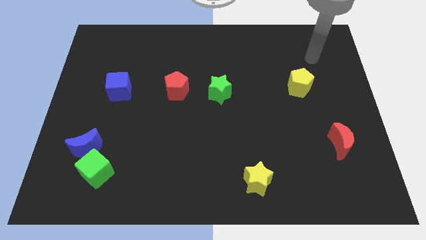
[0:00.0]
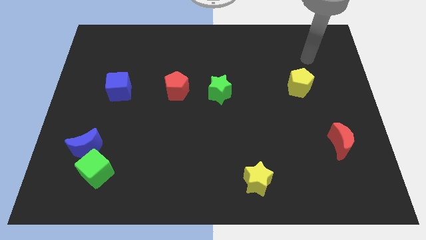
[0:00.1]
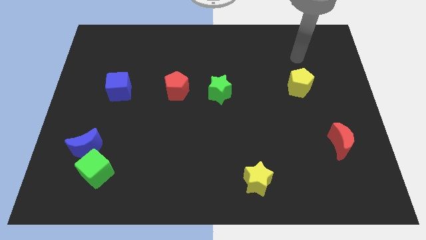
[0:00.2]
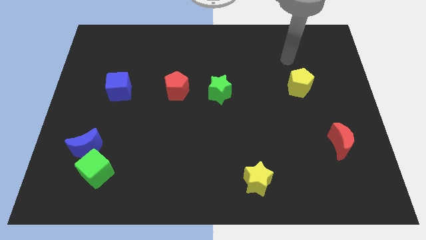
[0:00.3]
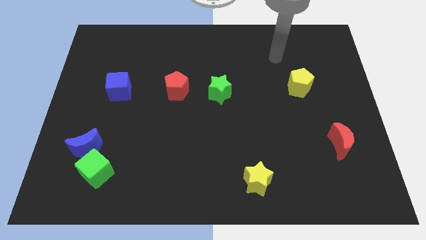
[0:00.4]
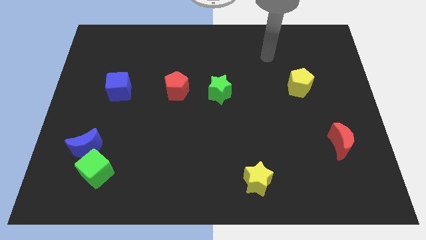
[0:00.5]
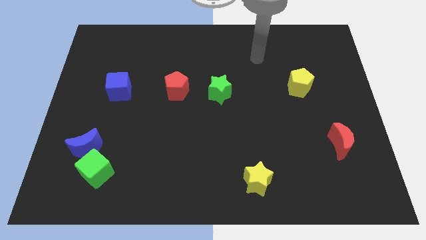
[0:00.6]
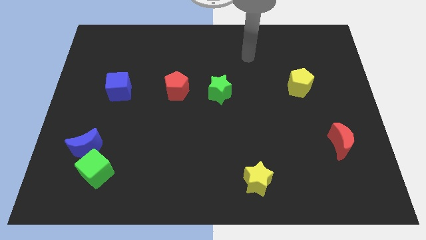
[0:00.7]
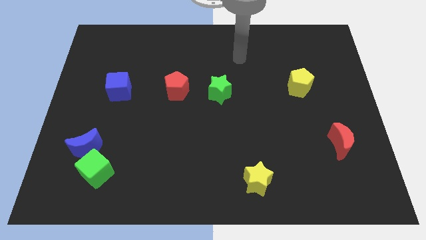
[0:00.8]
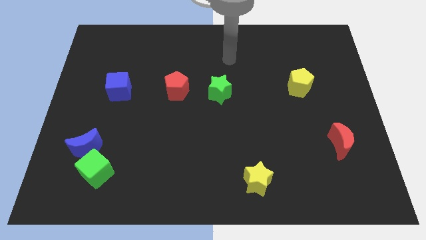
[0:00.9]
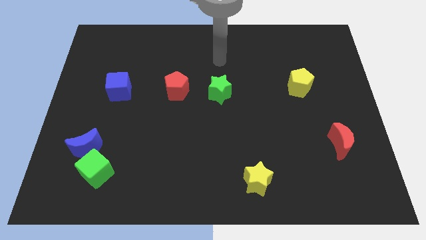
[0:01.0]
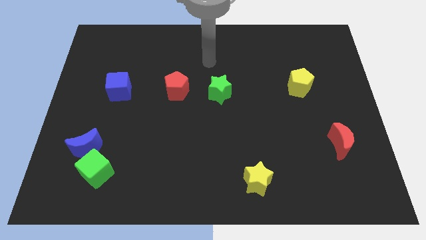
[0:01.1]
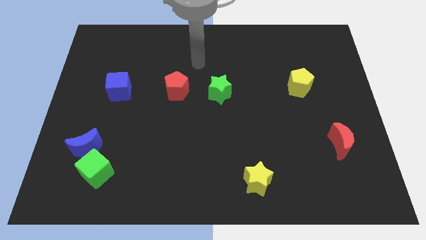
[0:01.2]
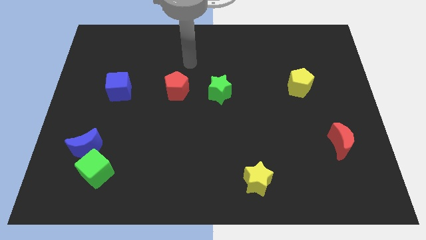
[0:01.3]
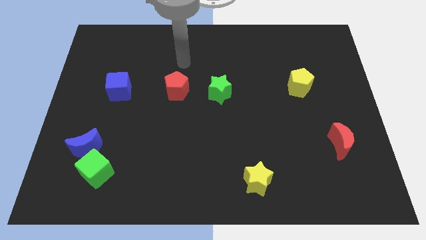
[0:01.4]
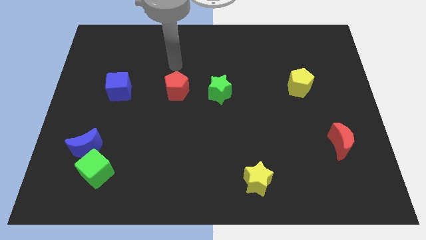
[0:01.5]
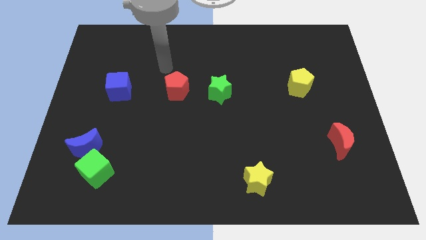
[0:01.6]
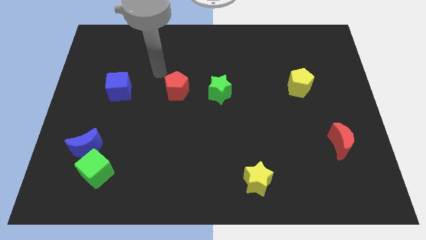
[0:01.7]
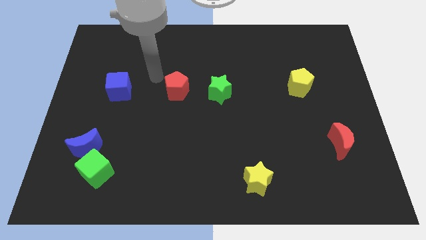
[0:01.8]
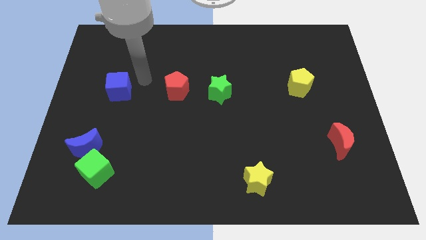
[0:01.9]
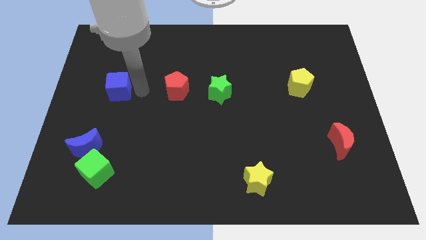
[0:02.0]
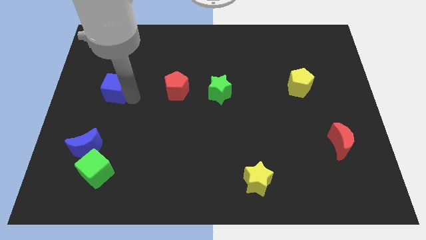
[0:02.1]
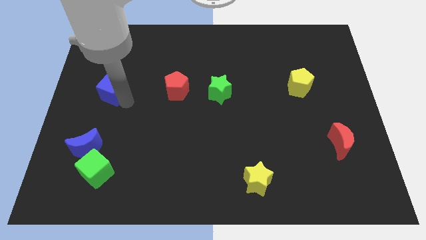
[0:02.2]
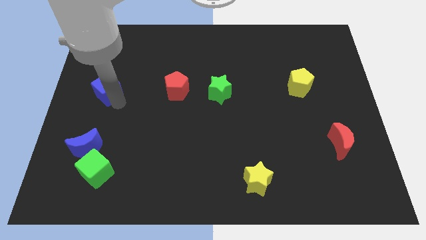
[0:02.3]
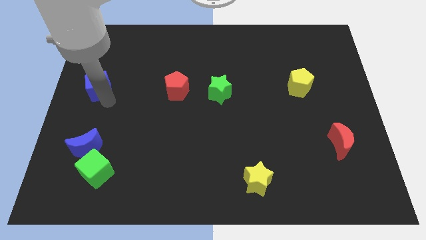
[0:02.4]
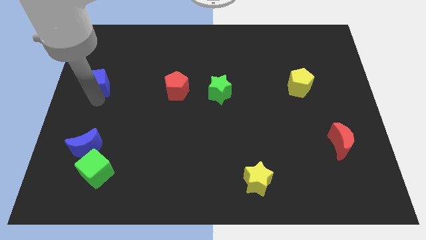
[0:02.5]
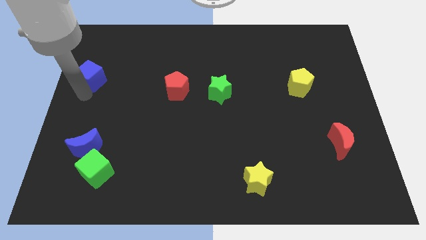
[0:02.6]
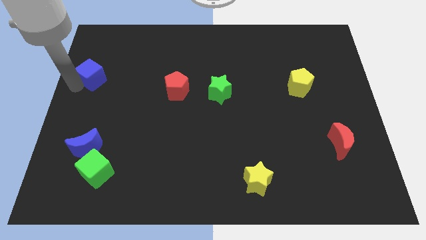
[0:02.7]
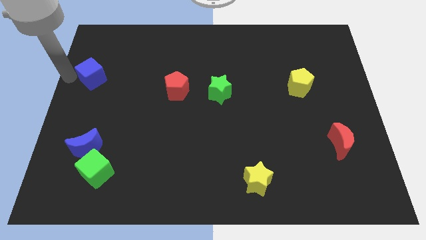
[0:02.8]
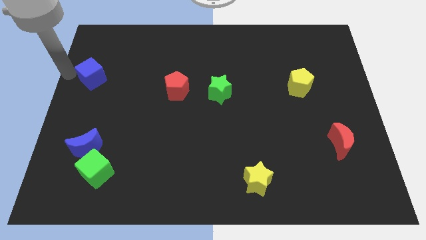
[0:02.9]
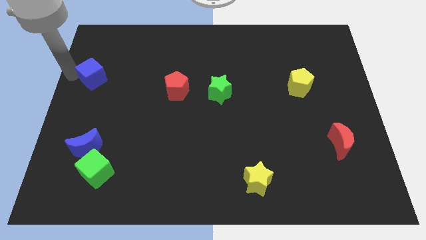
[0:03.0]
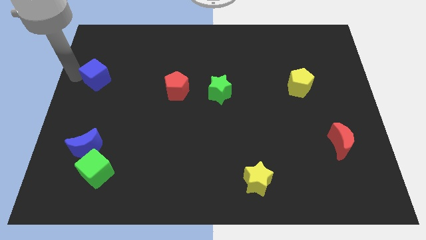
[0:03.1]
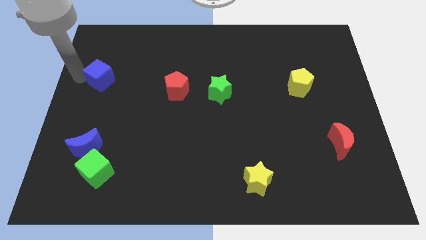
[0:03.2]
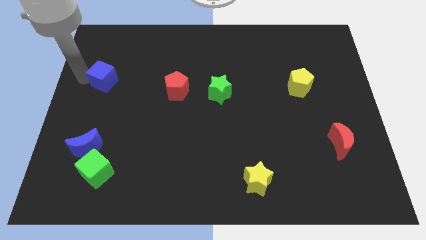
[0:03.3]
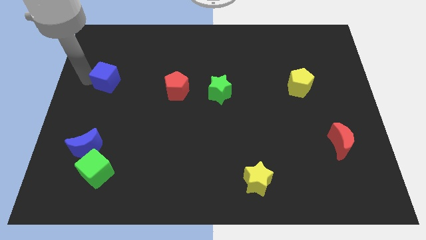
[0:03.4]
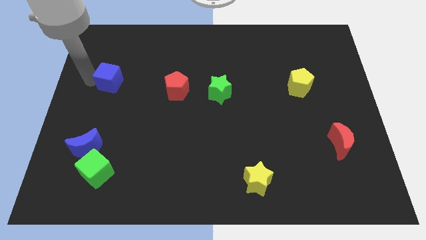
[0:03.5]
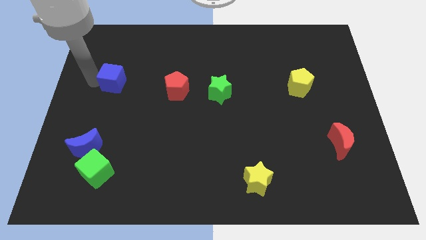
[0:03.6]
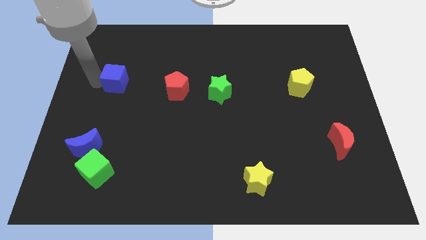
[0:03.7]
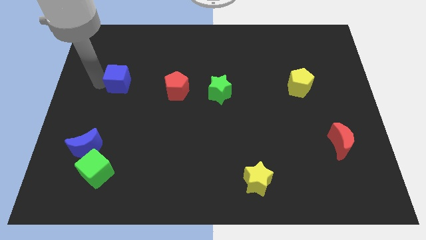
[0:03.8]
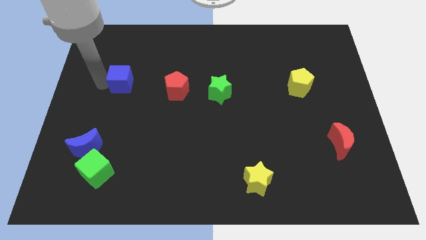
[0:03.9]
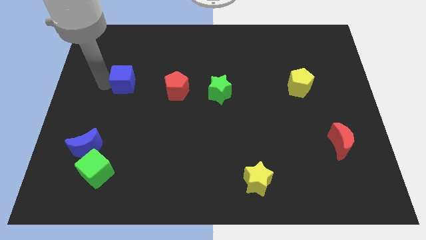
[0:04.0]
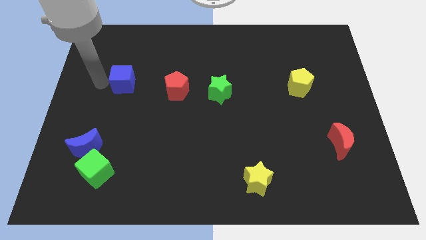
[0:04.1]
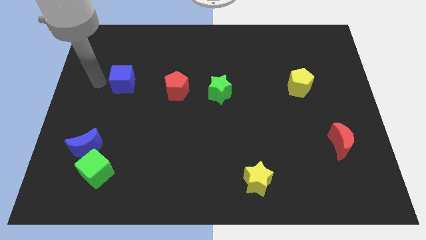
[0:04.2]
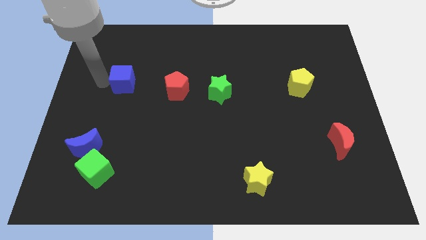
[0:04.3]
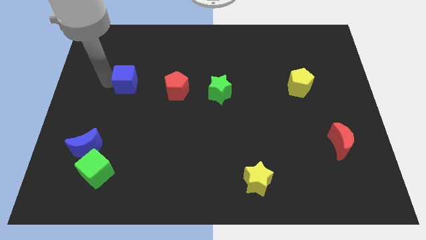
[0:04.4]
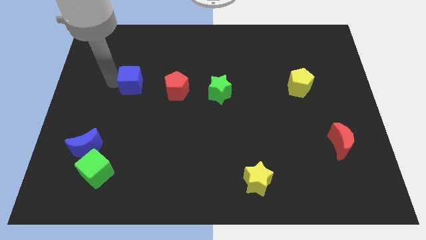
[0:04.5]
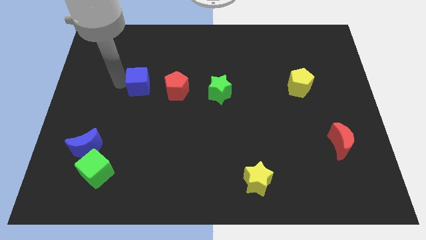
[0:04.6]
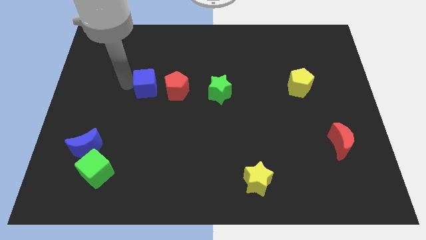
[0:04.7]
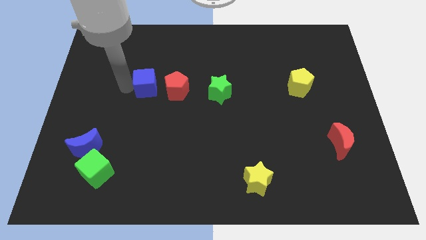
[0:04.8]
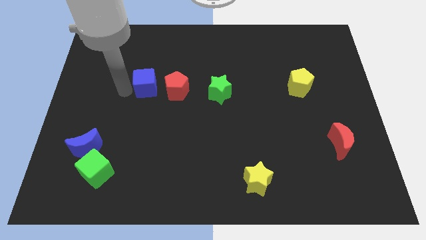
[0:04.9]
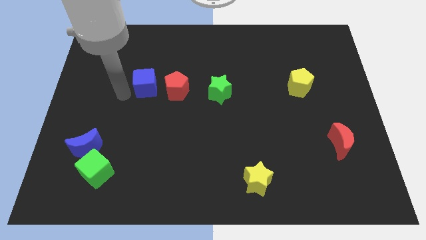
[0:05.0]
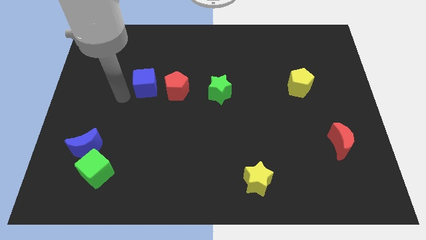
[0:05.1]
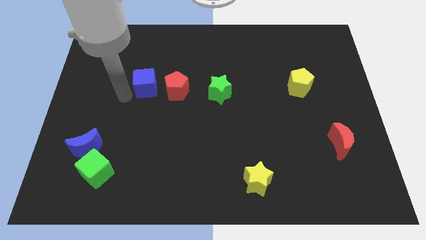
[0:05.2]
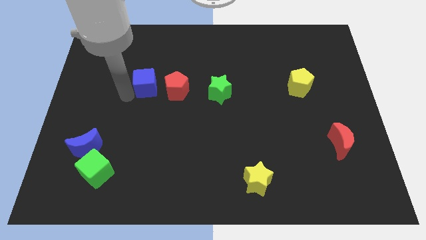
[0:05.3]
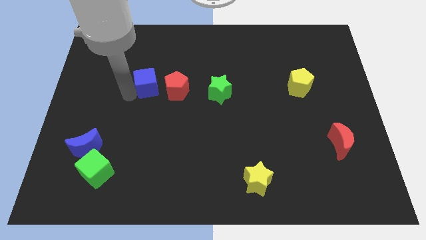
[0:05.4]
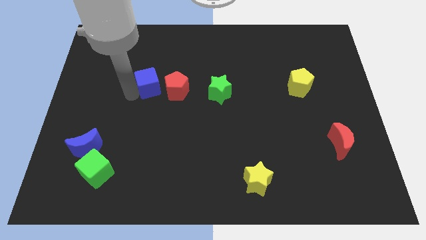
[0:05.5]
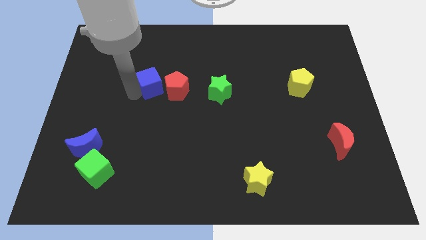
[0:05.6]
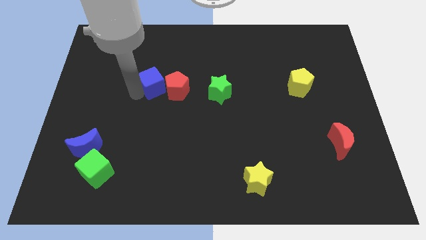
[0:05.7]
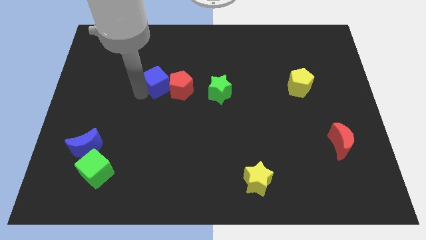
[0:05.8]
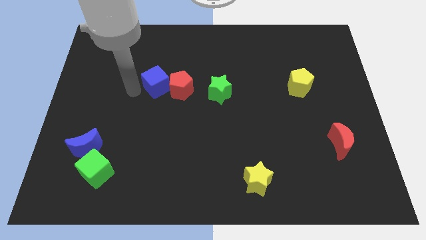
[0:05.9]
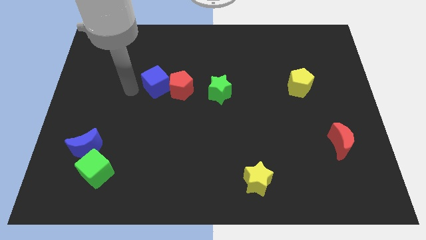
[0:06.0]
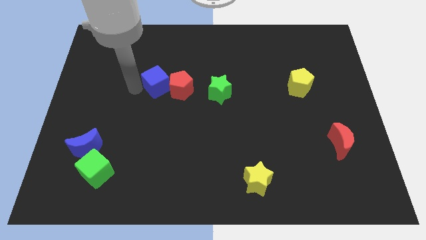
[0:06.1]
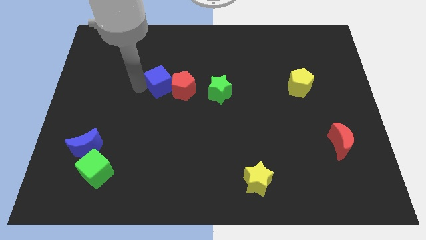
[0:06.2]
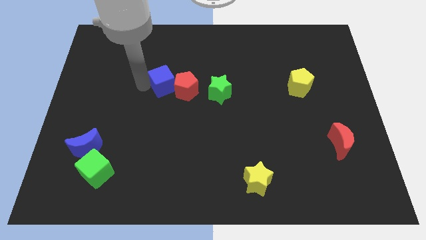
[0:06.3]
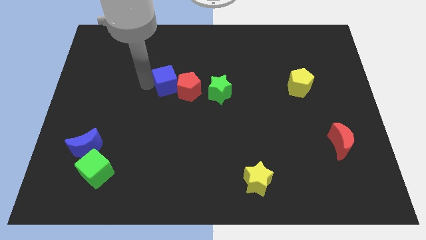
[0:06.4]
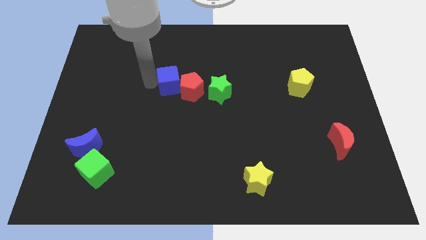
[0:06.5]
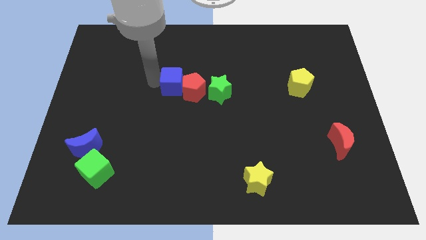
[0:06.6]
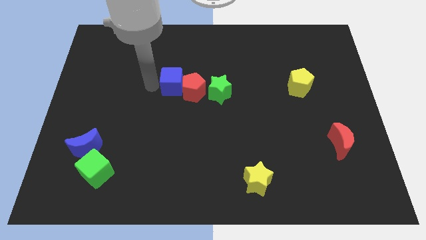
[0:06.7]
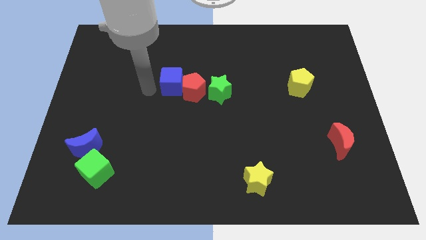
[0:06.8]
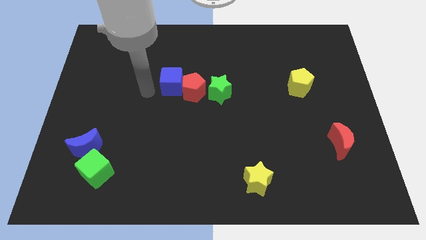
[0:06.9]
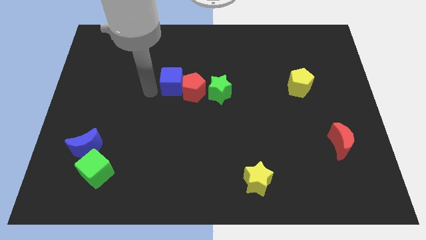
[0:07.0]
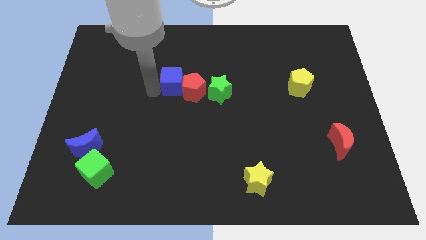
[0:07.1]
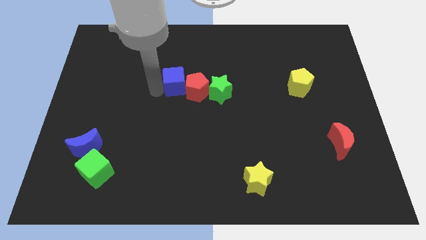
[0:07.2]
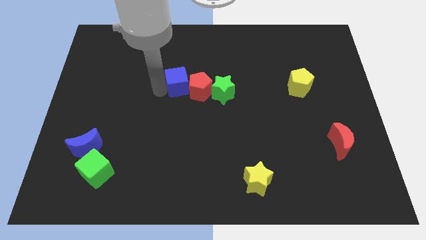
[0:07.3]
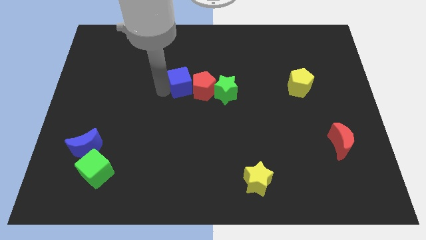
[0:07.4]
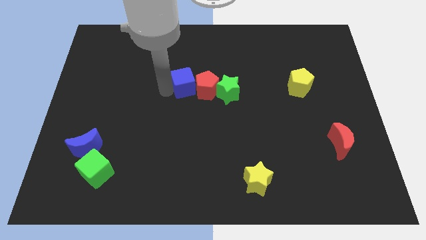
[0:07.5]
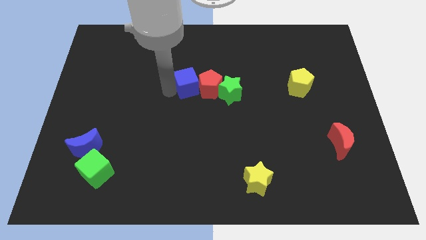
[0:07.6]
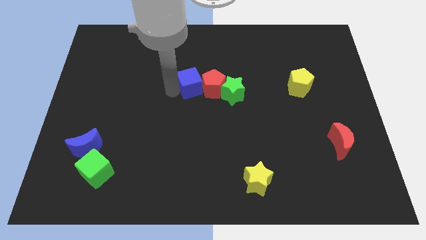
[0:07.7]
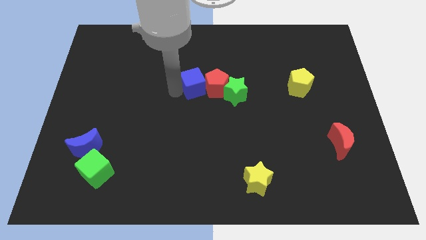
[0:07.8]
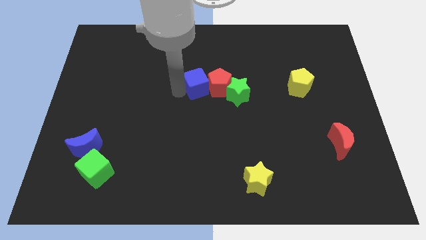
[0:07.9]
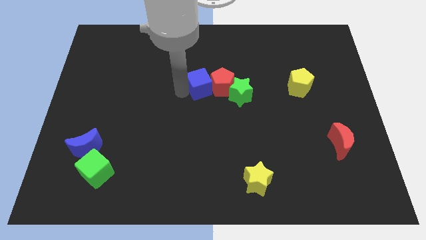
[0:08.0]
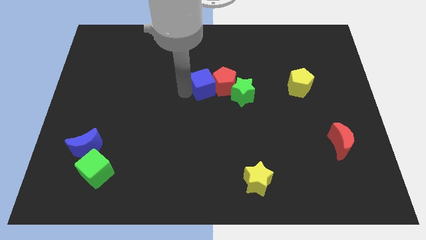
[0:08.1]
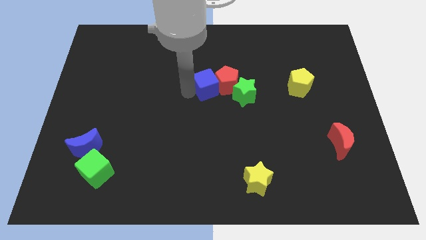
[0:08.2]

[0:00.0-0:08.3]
push the blue cube diagonally up and to the left of the green star
